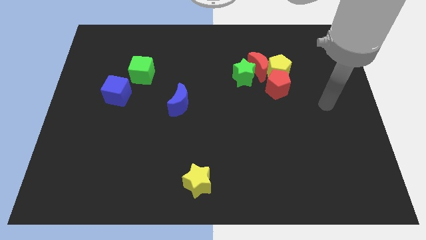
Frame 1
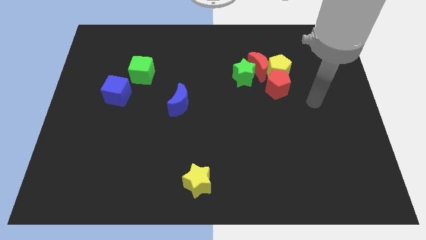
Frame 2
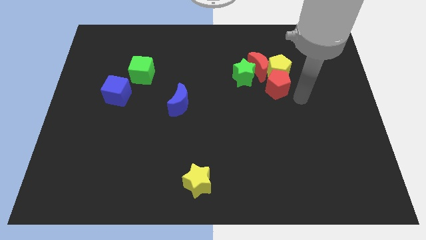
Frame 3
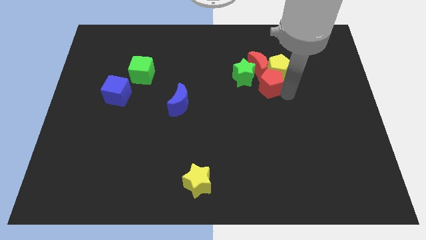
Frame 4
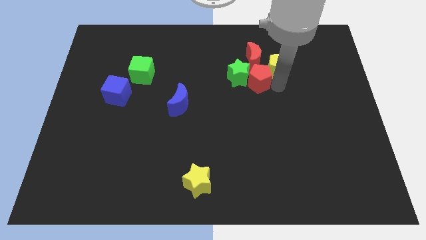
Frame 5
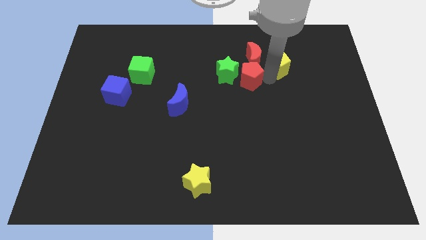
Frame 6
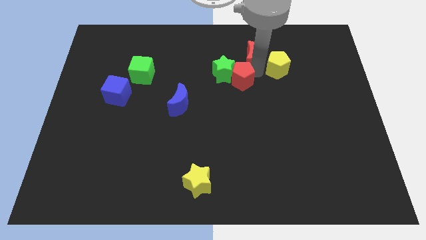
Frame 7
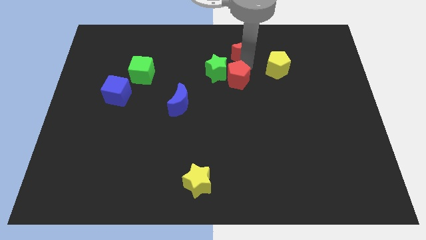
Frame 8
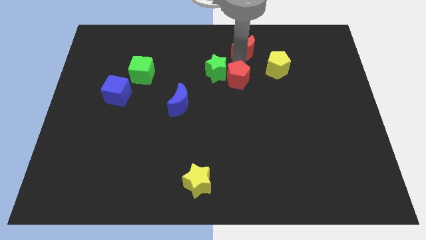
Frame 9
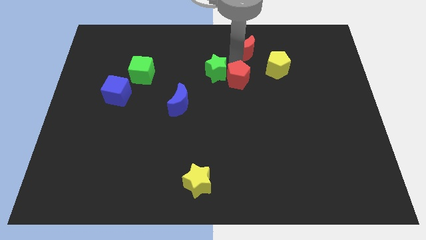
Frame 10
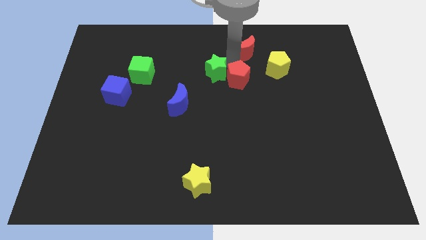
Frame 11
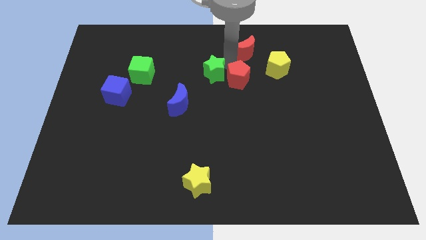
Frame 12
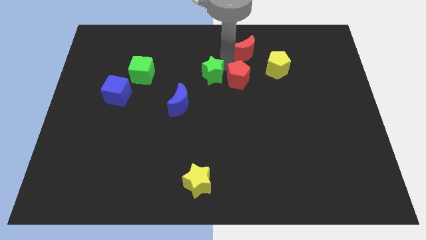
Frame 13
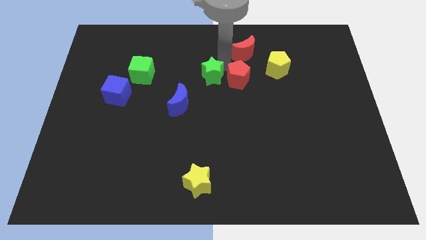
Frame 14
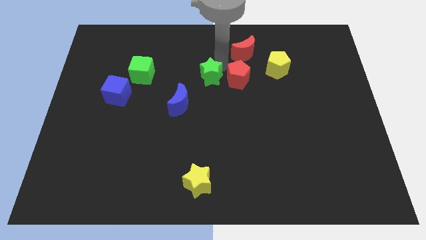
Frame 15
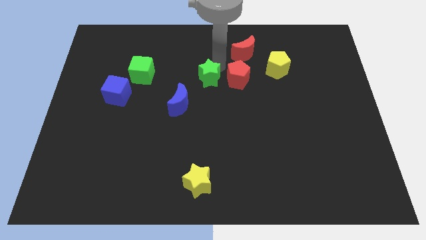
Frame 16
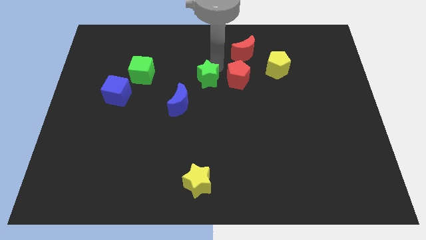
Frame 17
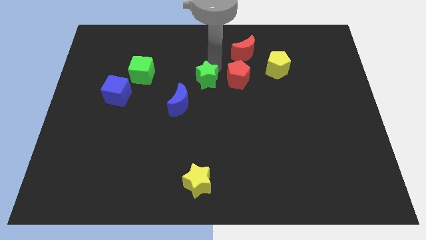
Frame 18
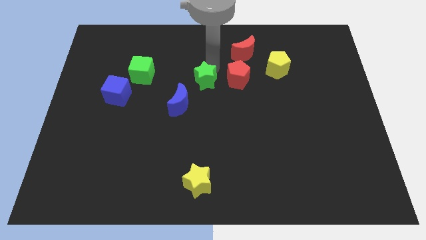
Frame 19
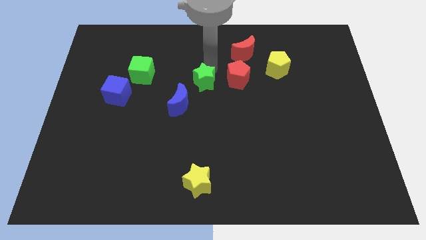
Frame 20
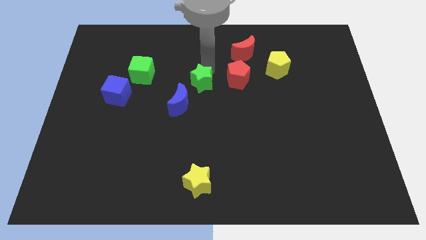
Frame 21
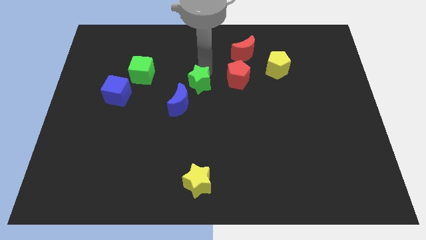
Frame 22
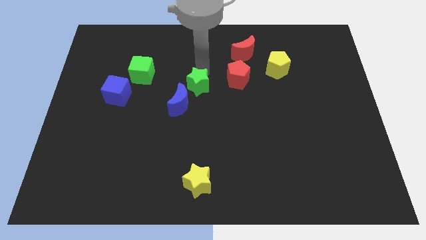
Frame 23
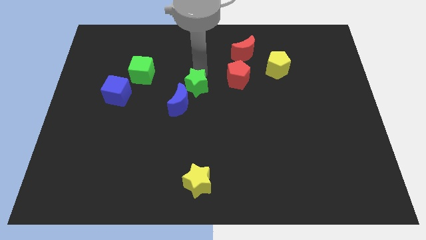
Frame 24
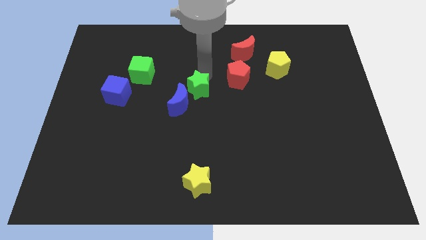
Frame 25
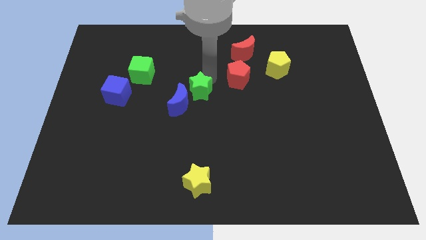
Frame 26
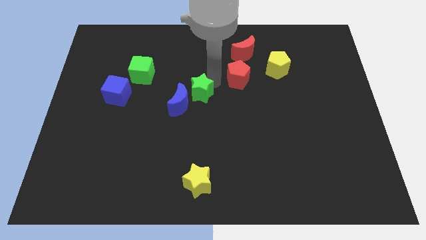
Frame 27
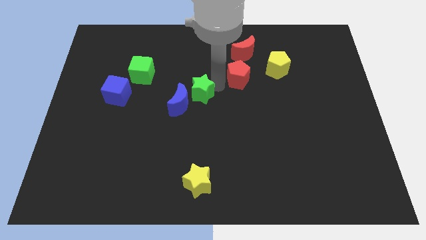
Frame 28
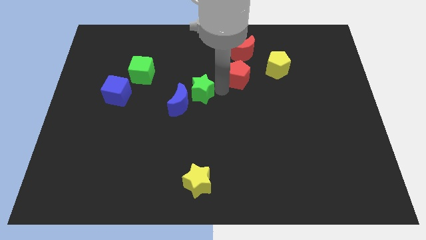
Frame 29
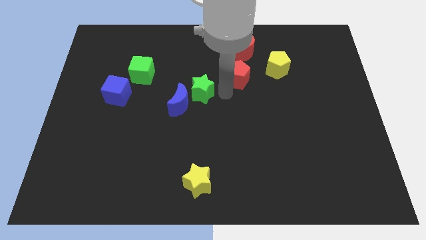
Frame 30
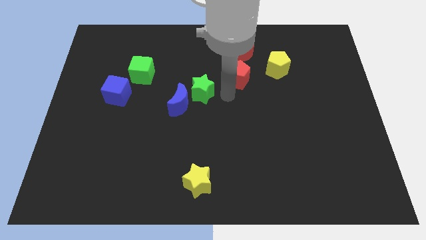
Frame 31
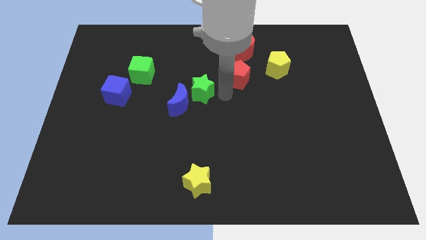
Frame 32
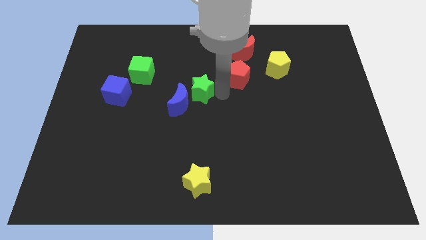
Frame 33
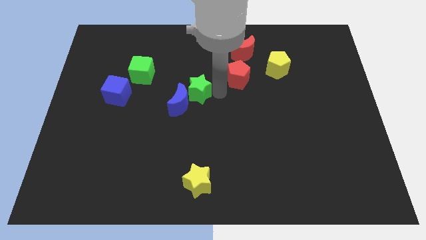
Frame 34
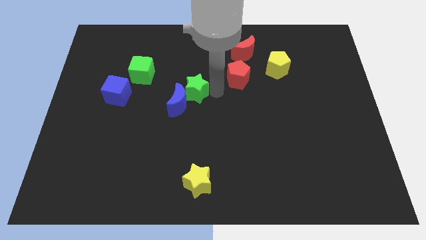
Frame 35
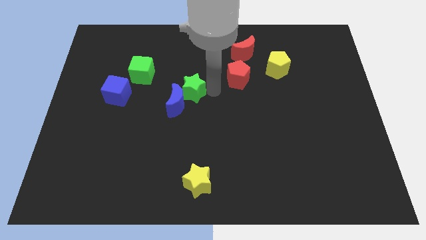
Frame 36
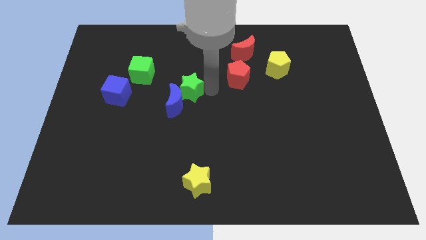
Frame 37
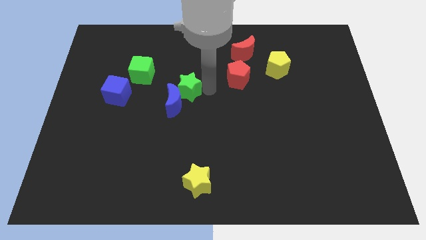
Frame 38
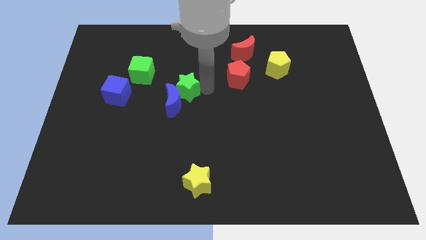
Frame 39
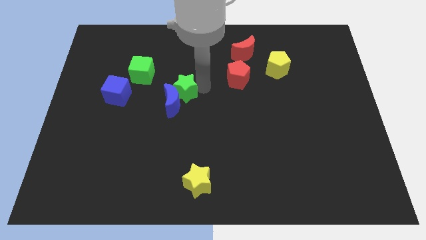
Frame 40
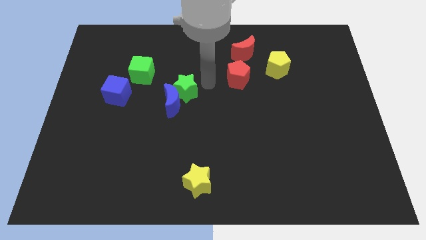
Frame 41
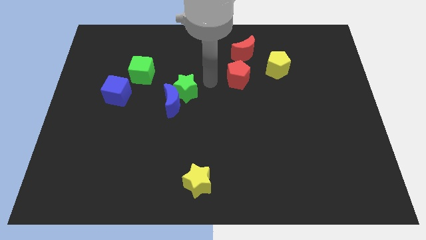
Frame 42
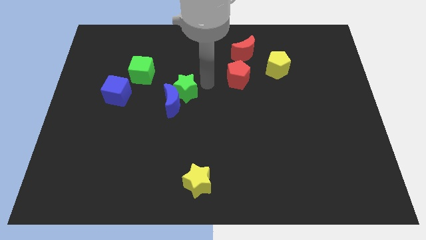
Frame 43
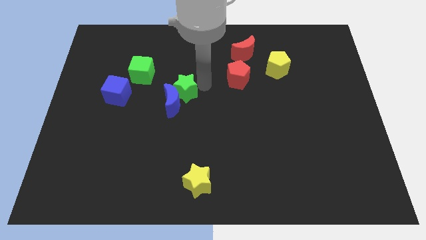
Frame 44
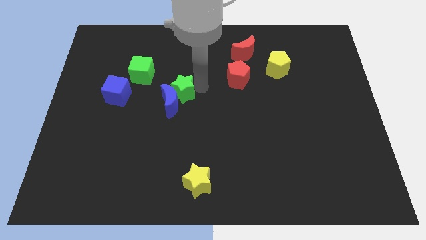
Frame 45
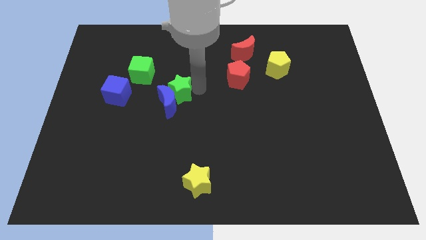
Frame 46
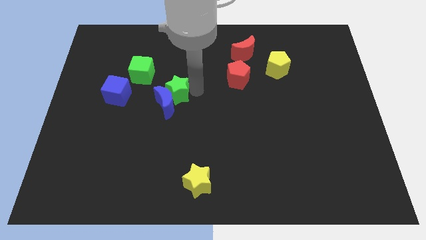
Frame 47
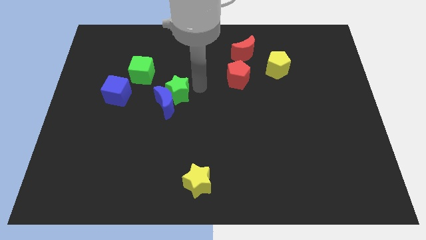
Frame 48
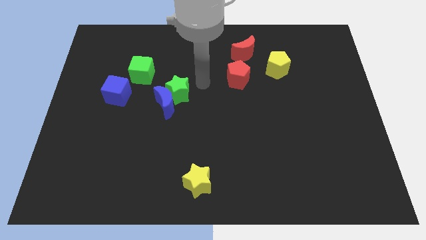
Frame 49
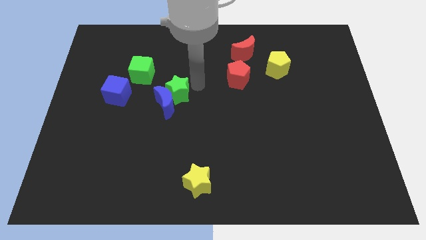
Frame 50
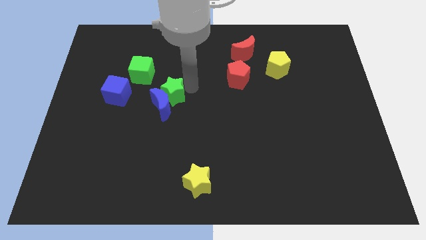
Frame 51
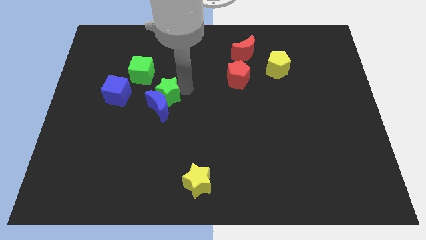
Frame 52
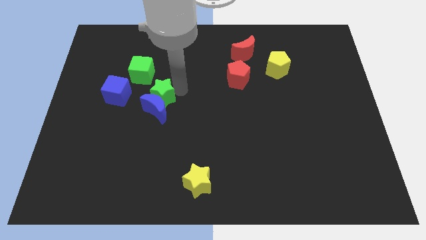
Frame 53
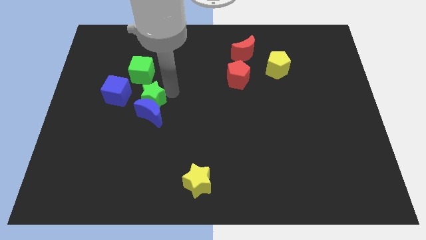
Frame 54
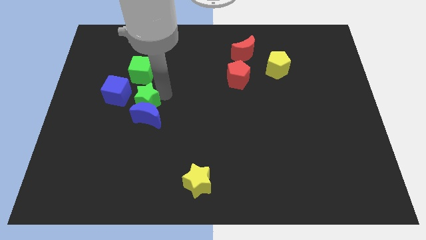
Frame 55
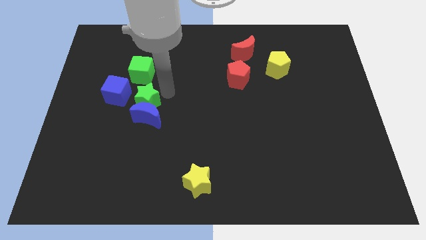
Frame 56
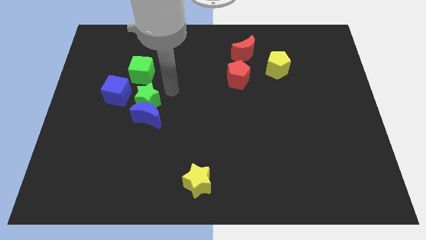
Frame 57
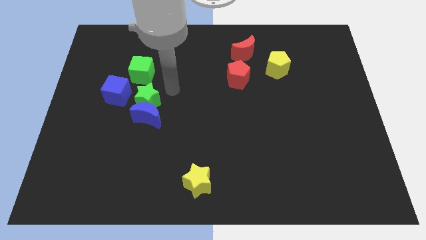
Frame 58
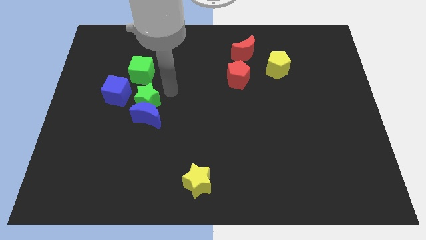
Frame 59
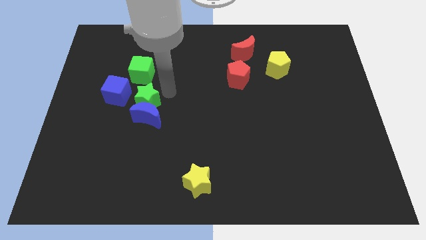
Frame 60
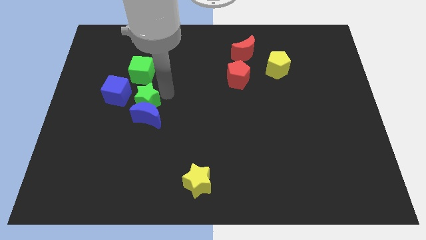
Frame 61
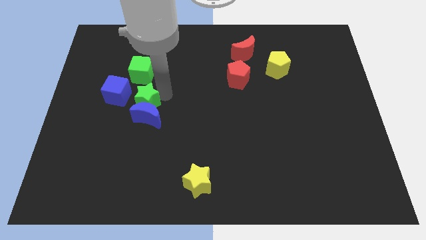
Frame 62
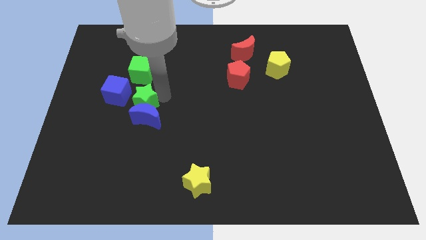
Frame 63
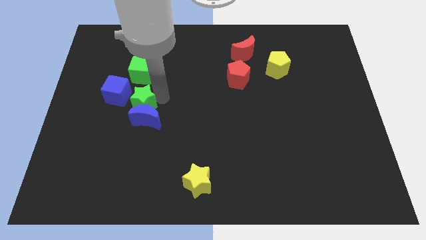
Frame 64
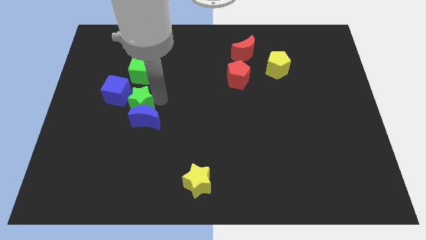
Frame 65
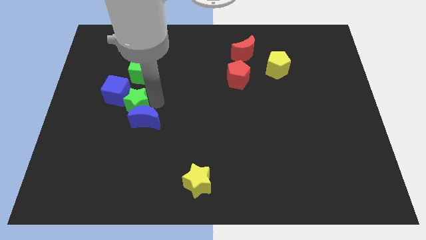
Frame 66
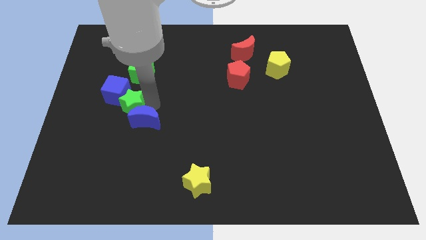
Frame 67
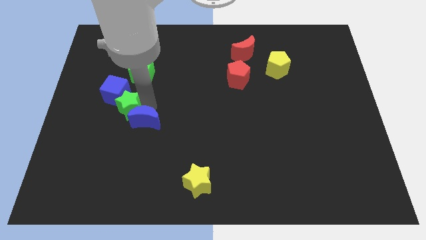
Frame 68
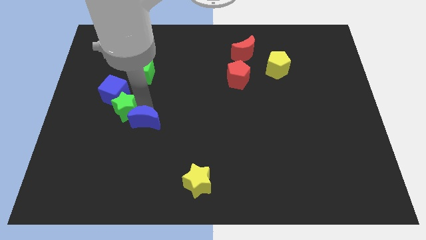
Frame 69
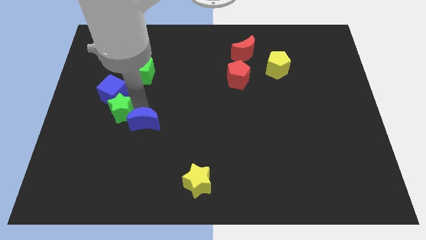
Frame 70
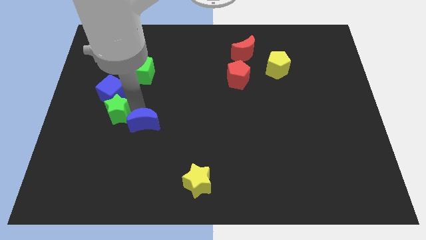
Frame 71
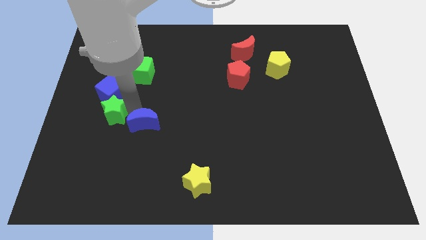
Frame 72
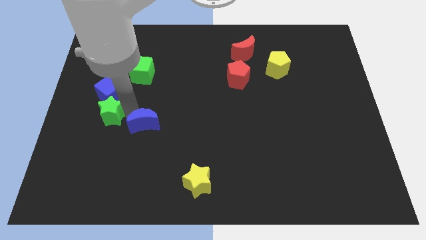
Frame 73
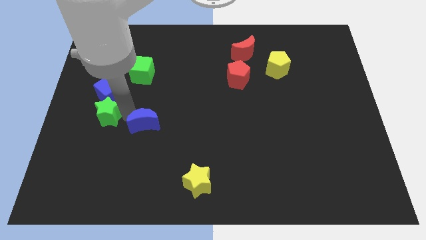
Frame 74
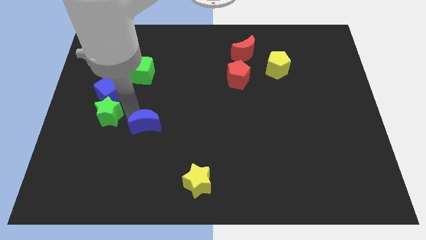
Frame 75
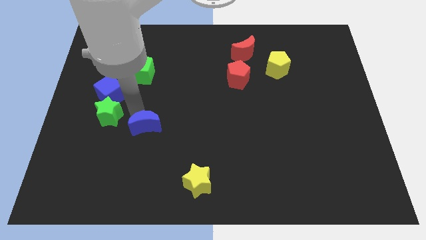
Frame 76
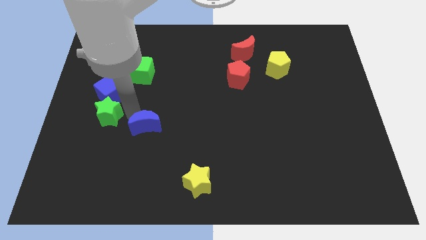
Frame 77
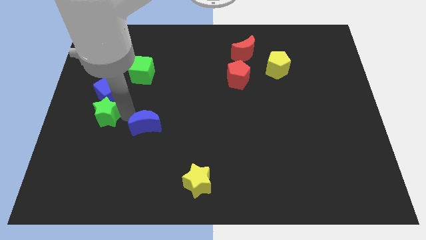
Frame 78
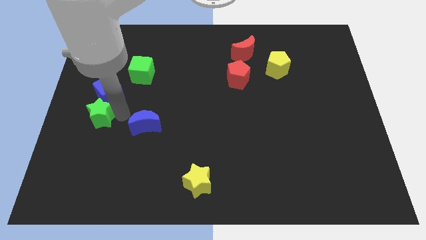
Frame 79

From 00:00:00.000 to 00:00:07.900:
push the green star to the left side of the board
